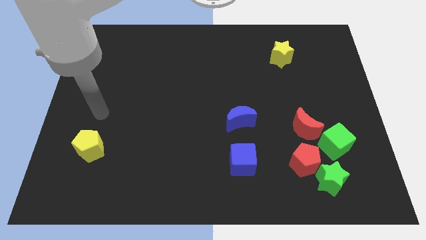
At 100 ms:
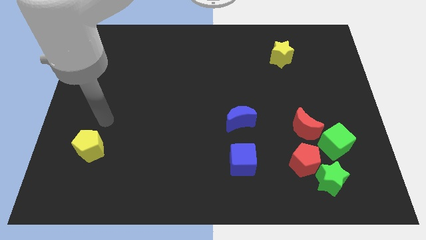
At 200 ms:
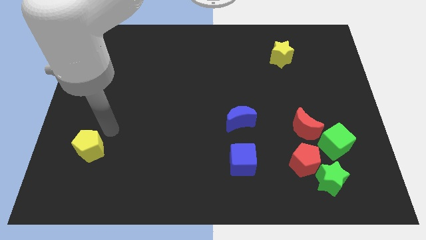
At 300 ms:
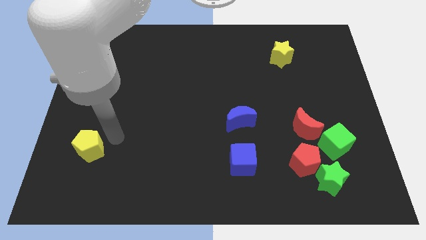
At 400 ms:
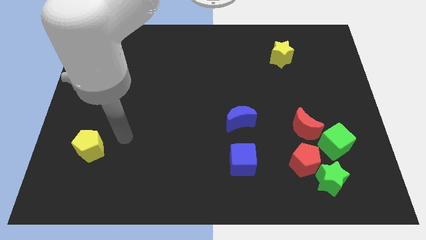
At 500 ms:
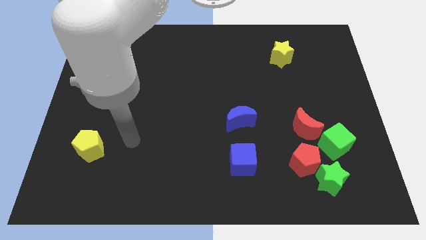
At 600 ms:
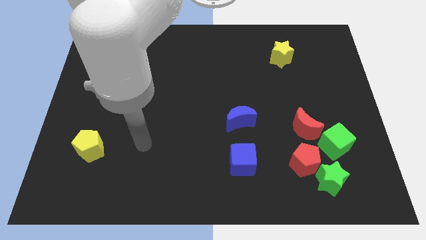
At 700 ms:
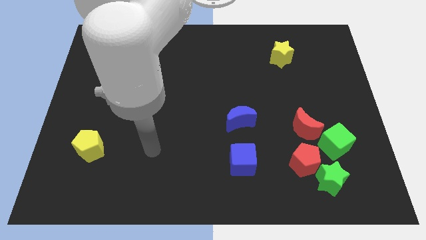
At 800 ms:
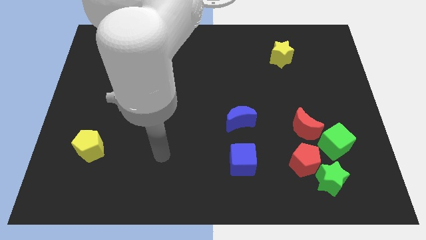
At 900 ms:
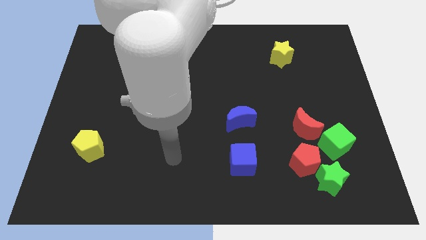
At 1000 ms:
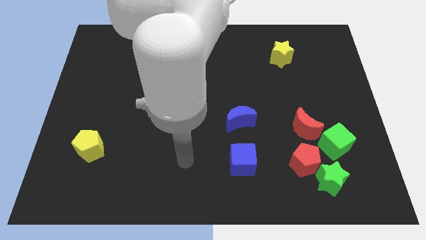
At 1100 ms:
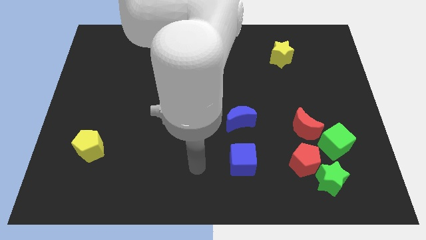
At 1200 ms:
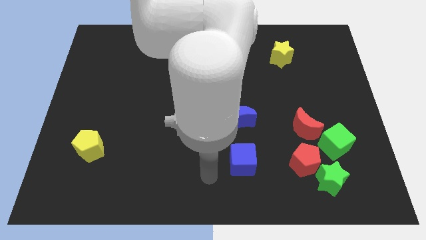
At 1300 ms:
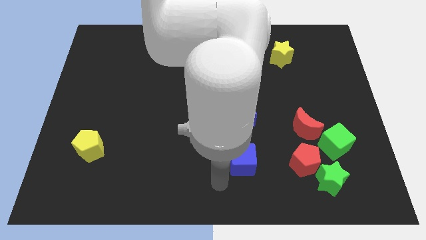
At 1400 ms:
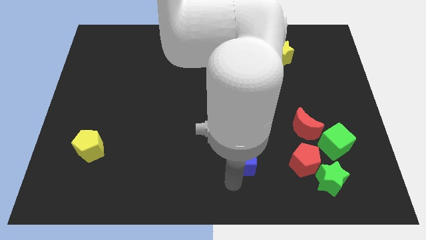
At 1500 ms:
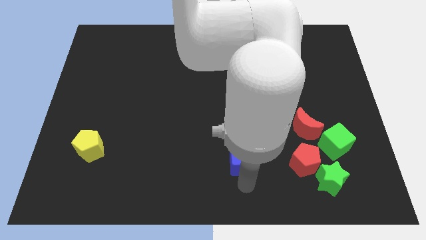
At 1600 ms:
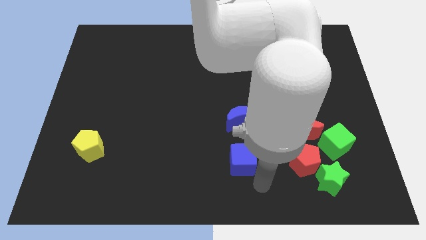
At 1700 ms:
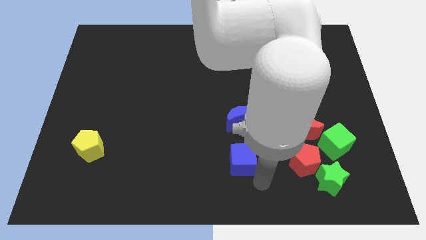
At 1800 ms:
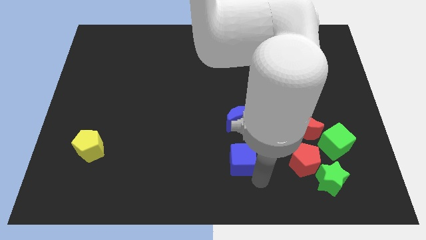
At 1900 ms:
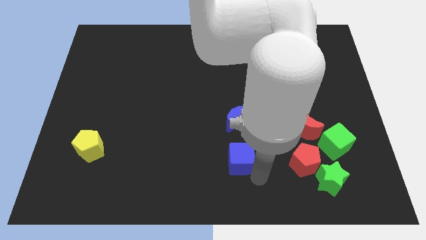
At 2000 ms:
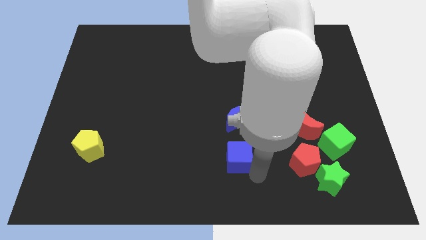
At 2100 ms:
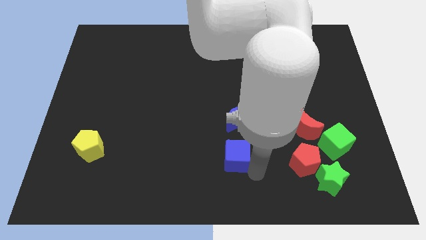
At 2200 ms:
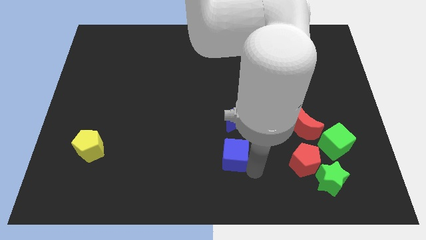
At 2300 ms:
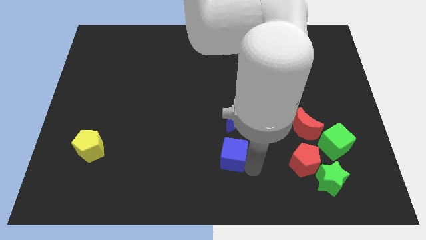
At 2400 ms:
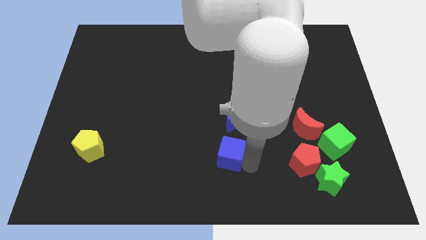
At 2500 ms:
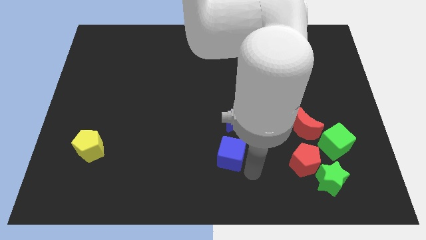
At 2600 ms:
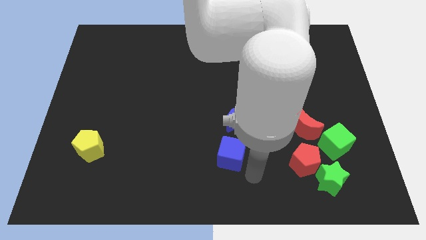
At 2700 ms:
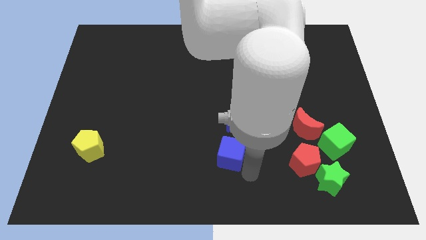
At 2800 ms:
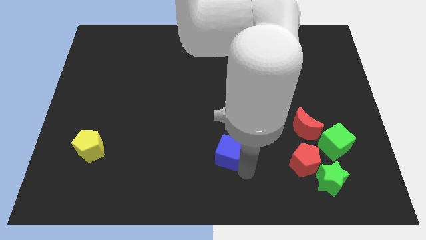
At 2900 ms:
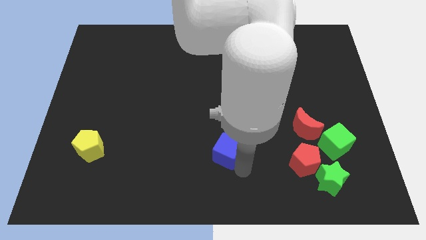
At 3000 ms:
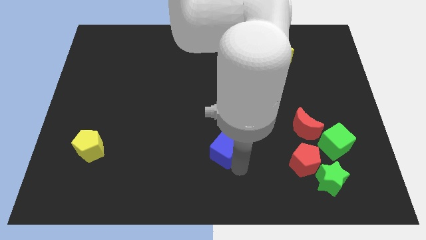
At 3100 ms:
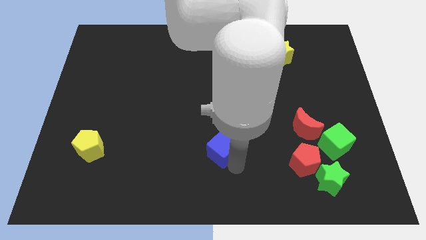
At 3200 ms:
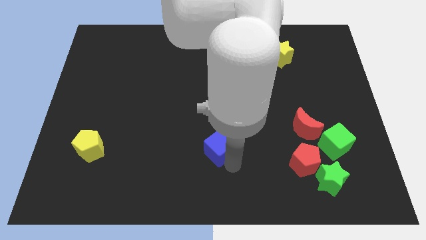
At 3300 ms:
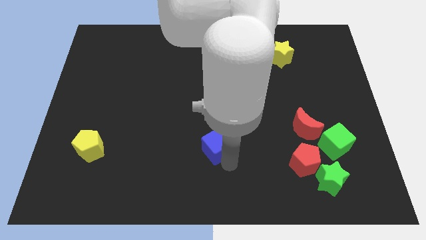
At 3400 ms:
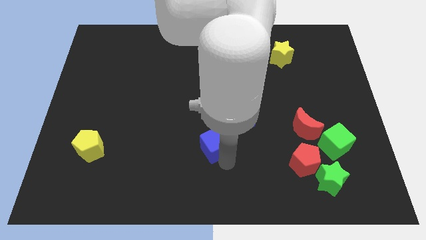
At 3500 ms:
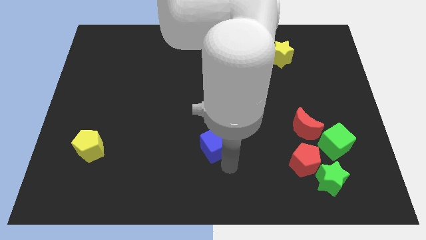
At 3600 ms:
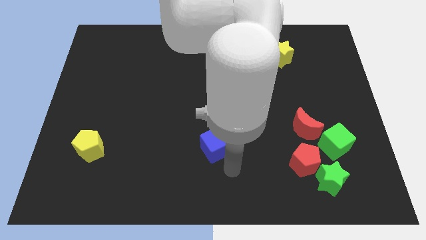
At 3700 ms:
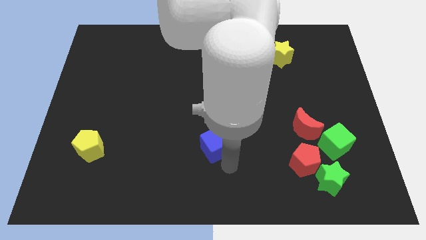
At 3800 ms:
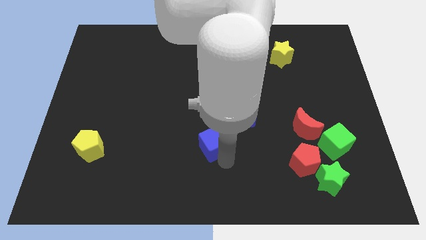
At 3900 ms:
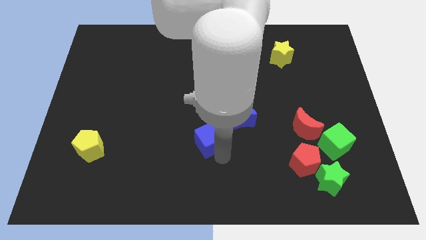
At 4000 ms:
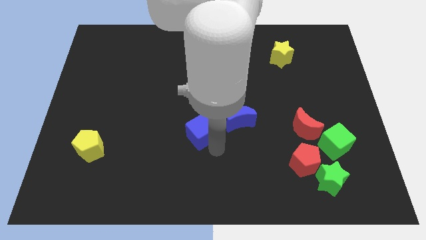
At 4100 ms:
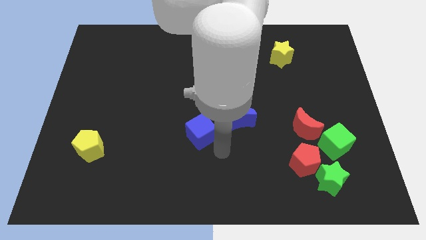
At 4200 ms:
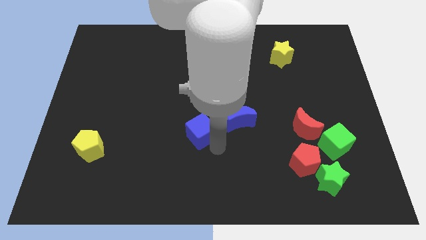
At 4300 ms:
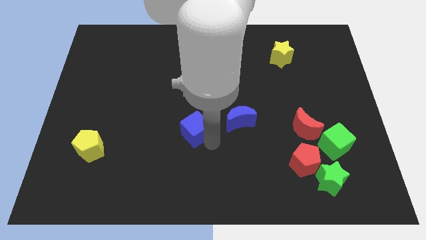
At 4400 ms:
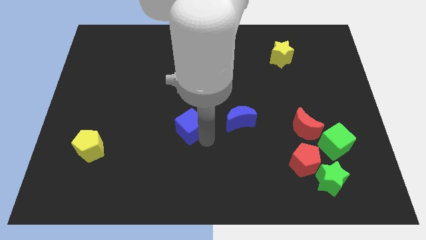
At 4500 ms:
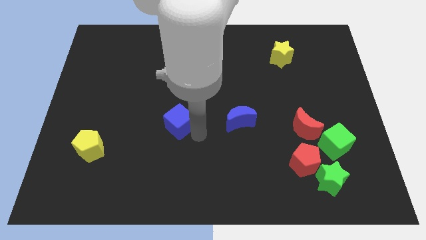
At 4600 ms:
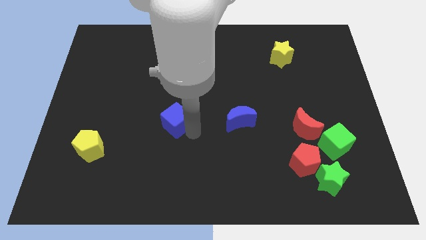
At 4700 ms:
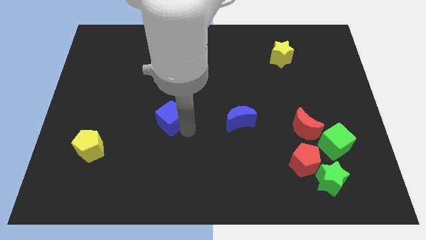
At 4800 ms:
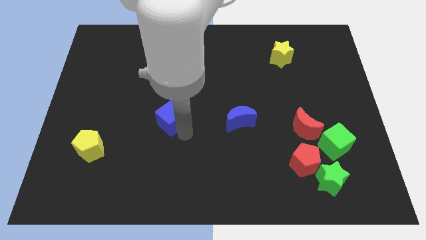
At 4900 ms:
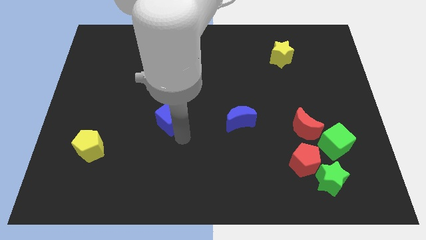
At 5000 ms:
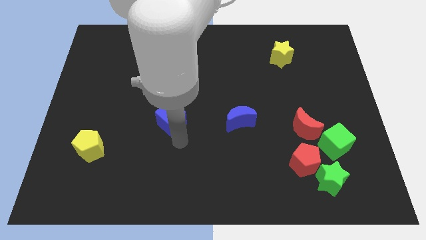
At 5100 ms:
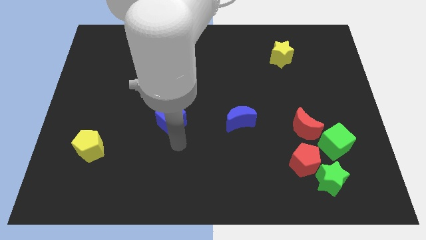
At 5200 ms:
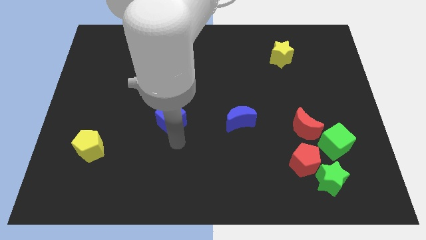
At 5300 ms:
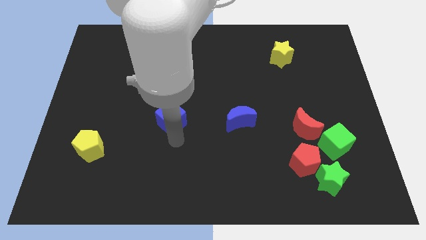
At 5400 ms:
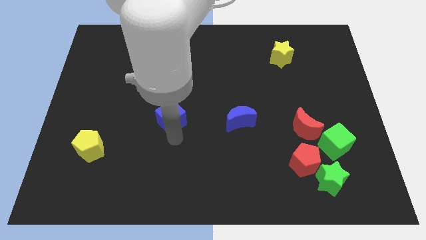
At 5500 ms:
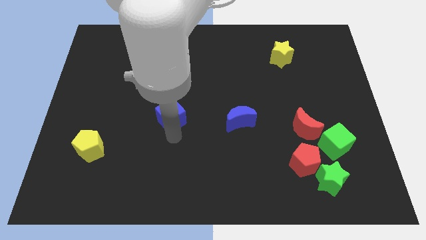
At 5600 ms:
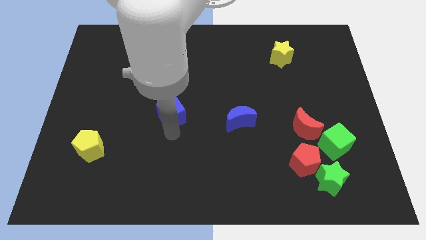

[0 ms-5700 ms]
push the blue cube up and left

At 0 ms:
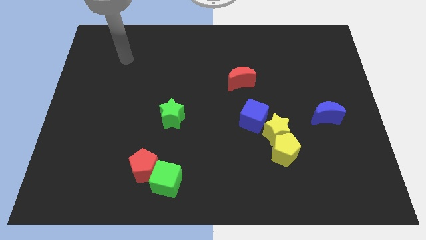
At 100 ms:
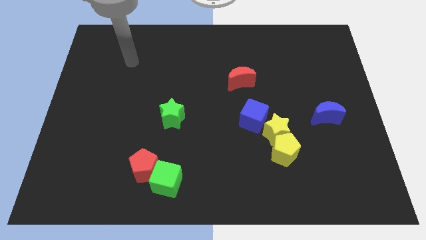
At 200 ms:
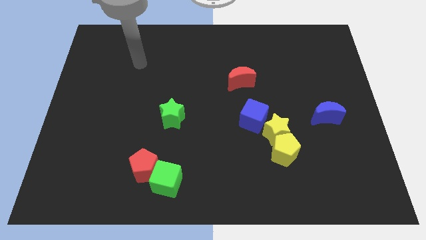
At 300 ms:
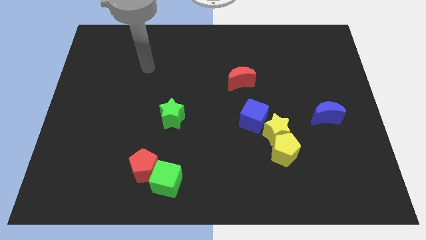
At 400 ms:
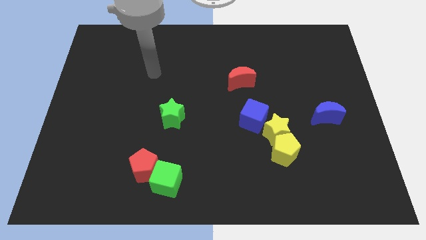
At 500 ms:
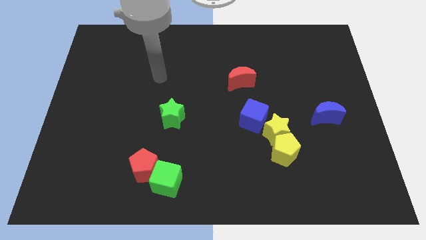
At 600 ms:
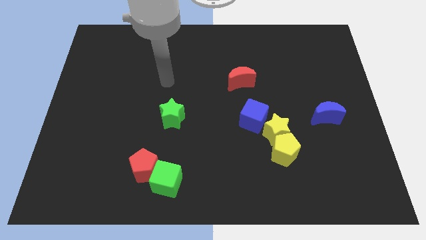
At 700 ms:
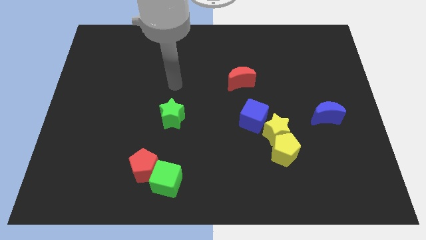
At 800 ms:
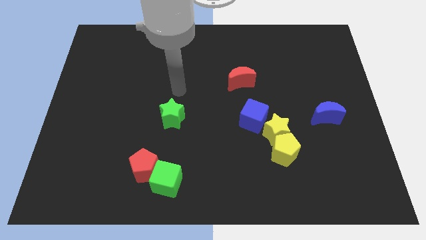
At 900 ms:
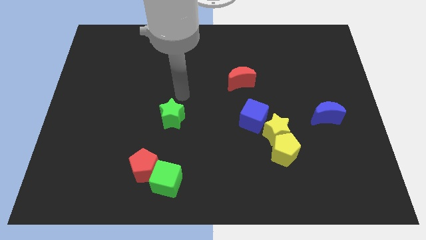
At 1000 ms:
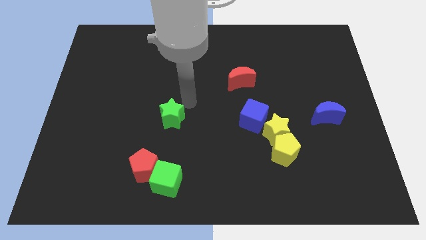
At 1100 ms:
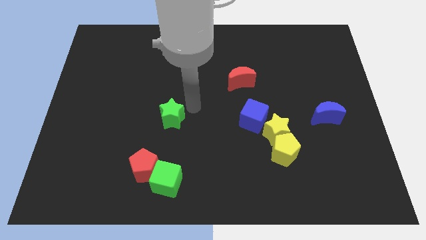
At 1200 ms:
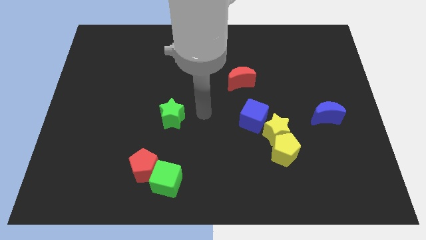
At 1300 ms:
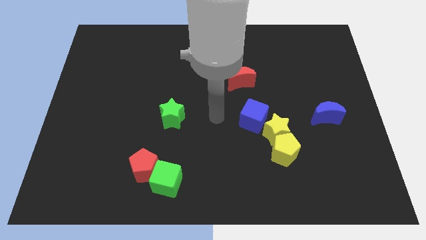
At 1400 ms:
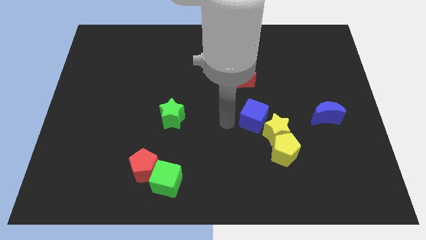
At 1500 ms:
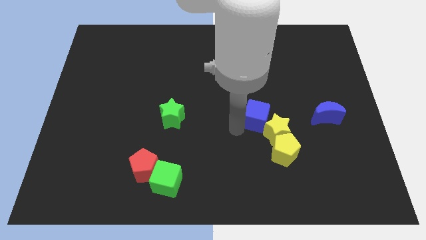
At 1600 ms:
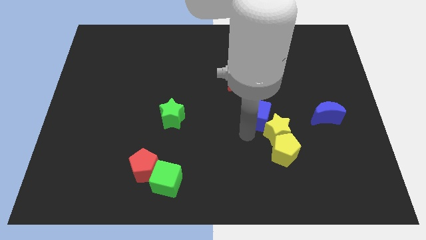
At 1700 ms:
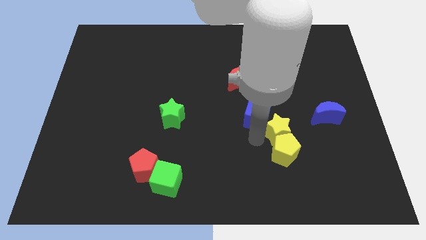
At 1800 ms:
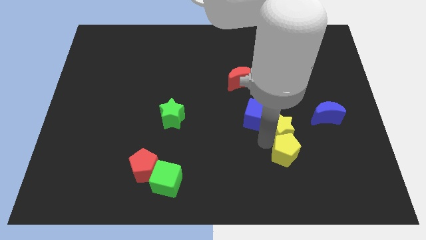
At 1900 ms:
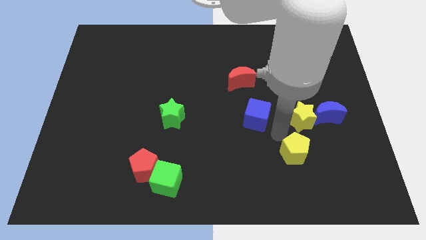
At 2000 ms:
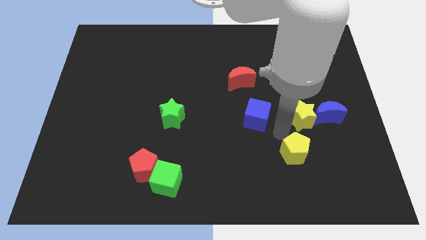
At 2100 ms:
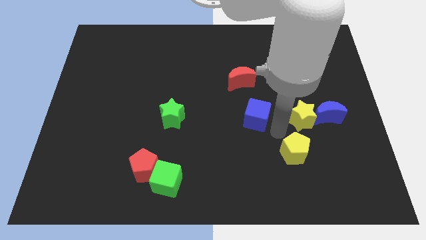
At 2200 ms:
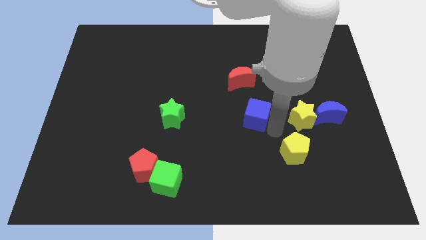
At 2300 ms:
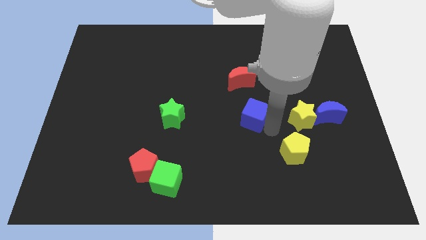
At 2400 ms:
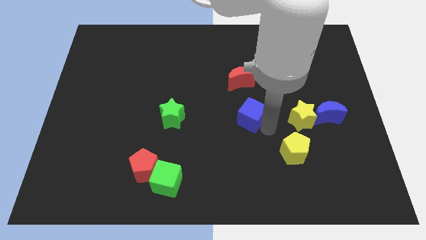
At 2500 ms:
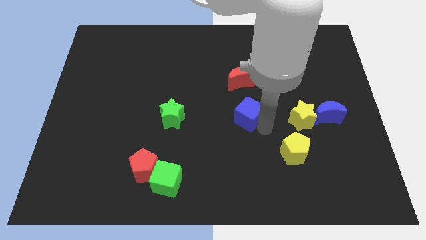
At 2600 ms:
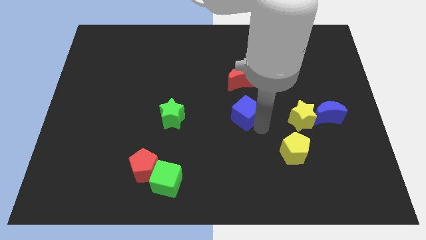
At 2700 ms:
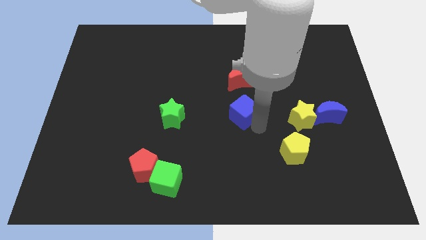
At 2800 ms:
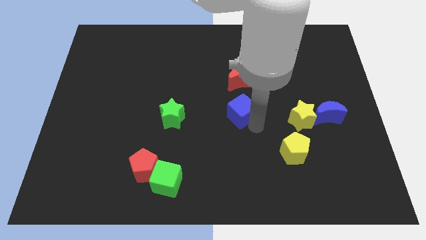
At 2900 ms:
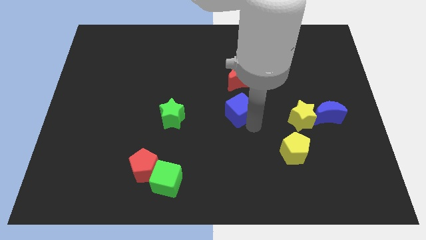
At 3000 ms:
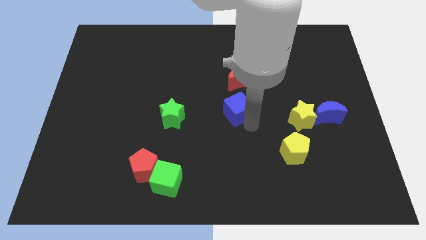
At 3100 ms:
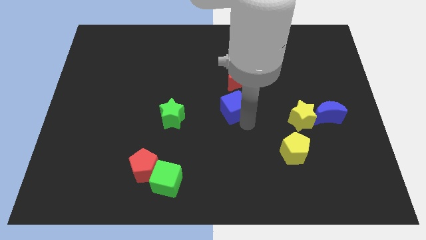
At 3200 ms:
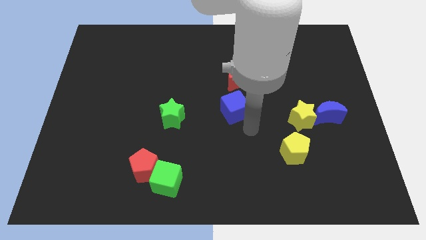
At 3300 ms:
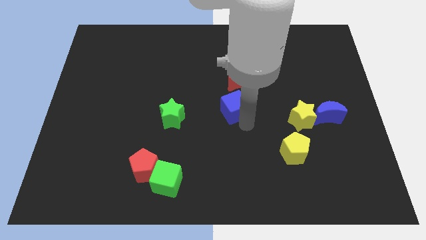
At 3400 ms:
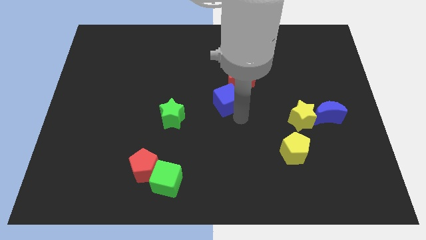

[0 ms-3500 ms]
slightly move the blue cube diagonally upwards and to the left
